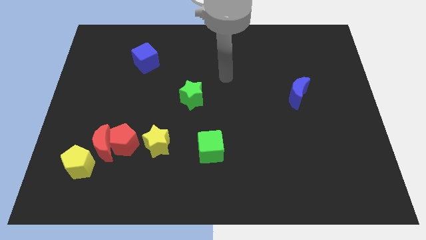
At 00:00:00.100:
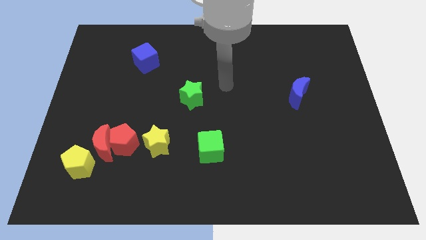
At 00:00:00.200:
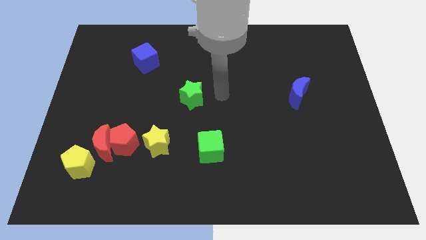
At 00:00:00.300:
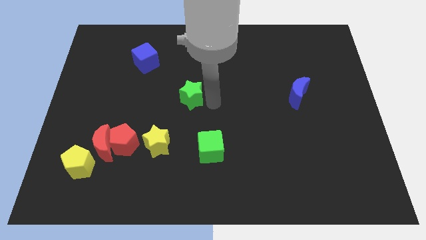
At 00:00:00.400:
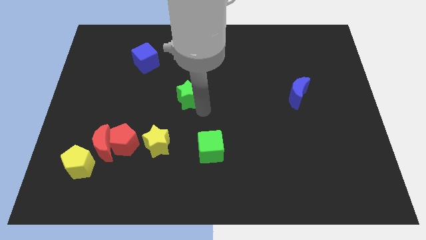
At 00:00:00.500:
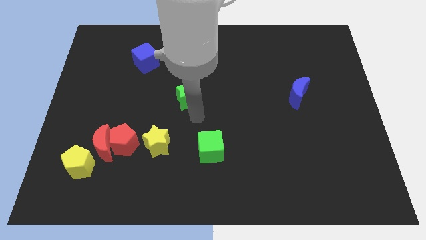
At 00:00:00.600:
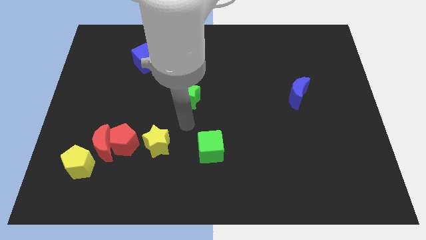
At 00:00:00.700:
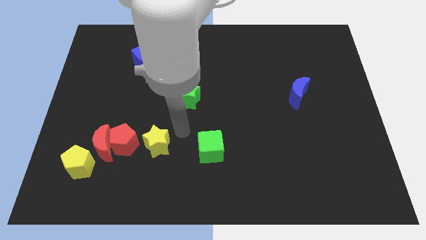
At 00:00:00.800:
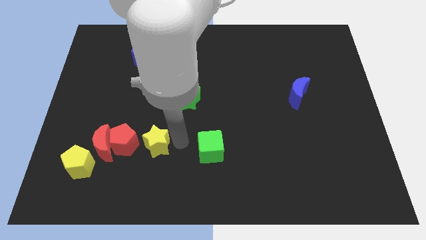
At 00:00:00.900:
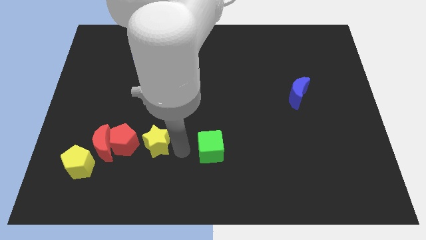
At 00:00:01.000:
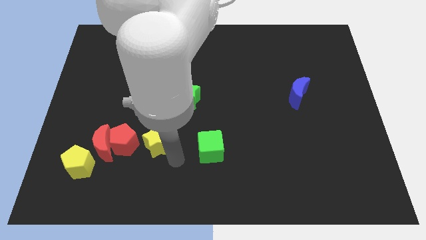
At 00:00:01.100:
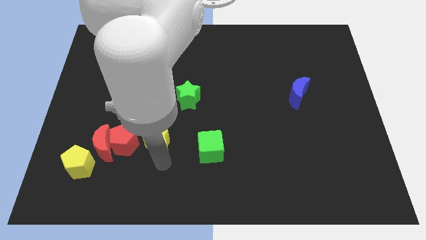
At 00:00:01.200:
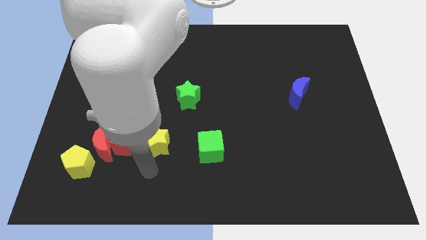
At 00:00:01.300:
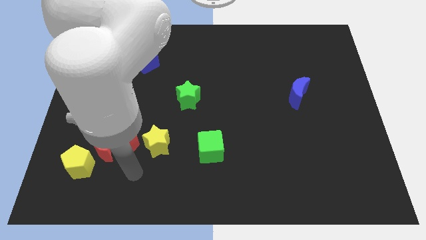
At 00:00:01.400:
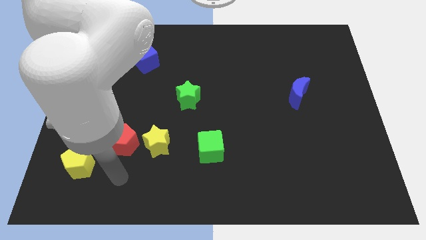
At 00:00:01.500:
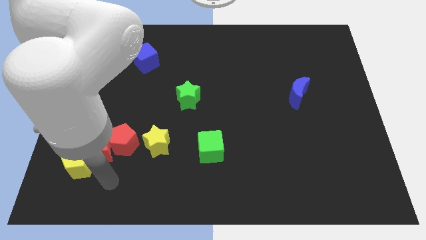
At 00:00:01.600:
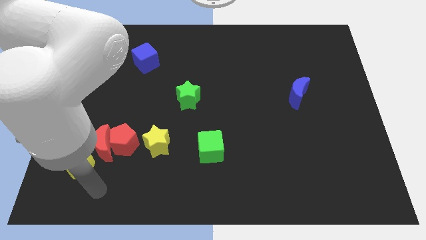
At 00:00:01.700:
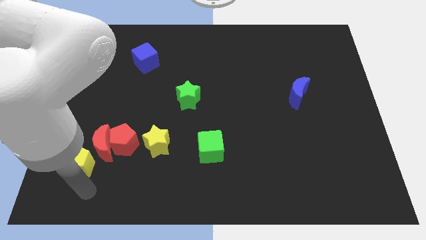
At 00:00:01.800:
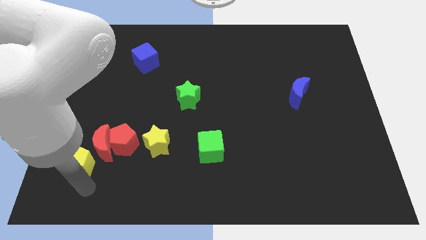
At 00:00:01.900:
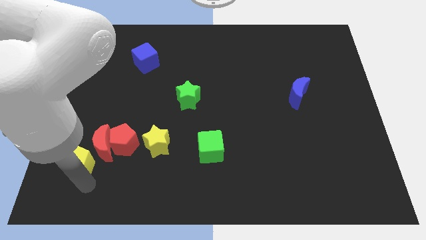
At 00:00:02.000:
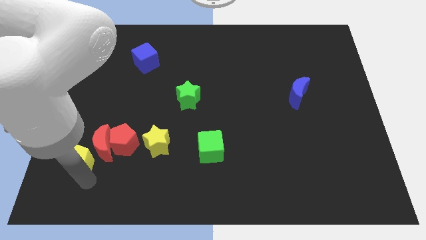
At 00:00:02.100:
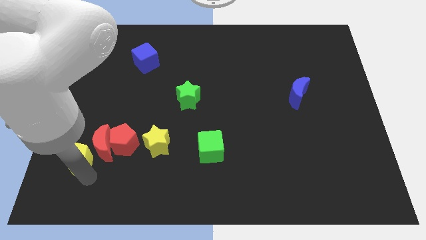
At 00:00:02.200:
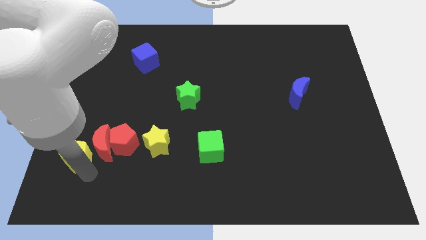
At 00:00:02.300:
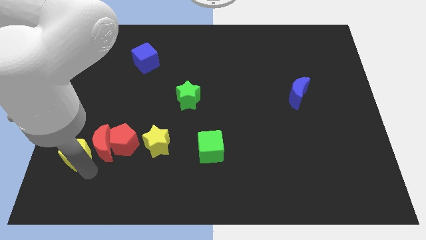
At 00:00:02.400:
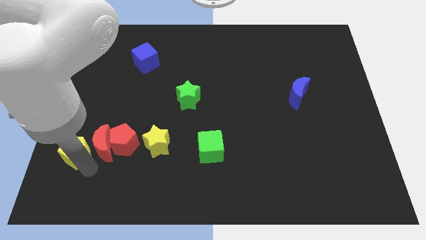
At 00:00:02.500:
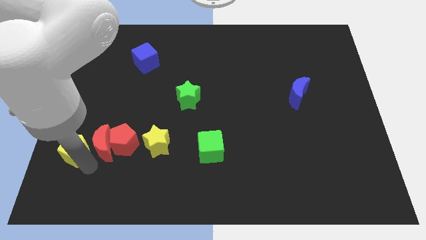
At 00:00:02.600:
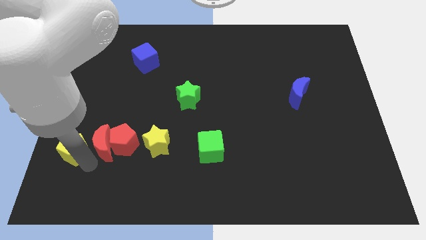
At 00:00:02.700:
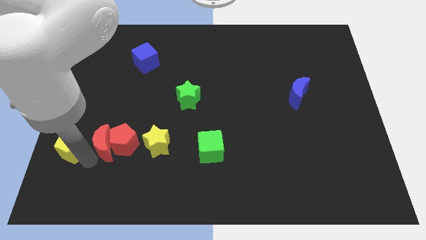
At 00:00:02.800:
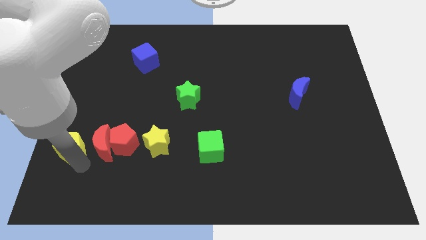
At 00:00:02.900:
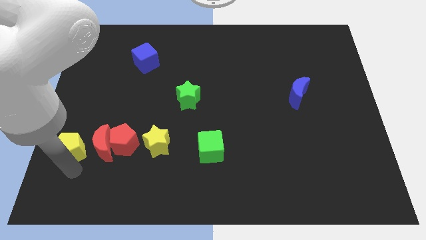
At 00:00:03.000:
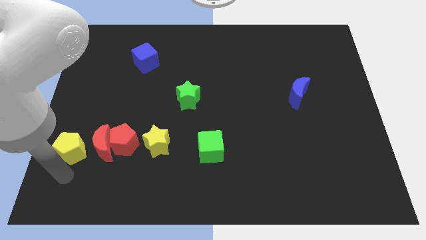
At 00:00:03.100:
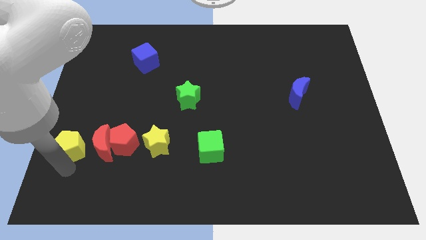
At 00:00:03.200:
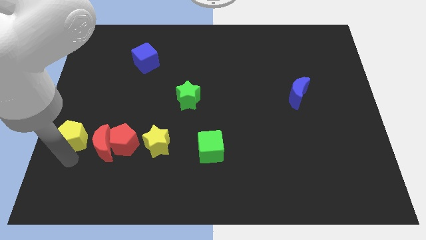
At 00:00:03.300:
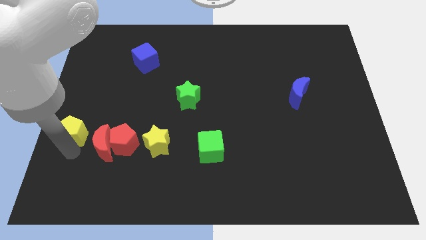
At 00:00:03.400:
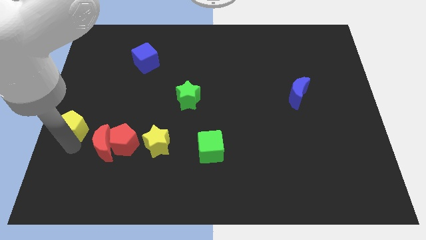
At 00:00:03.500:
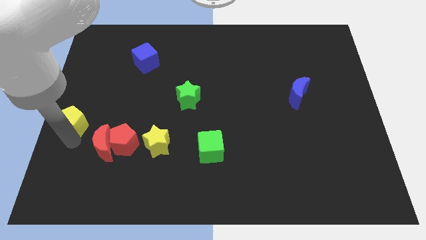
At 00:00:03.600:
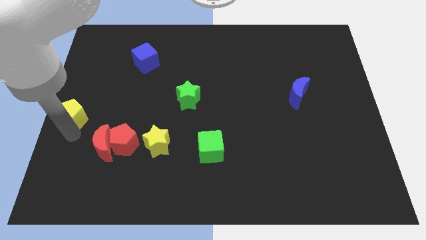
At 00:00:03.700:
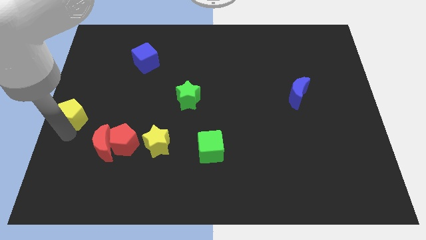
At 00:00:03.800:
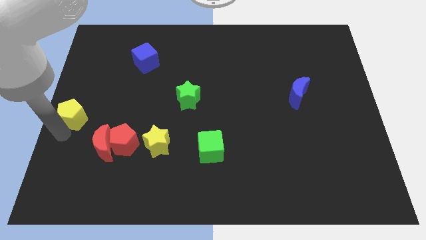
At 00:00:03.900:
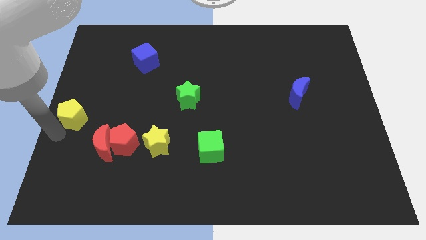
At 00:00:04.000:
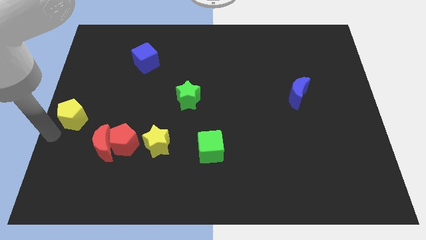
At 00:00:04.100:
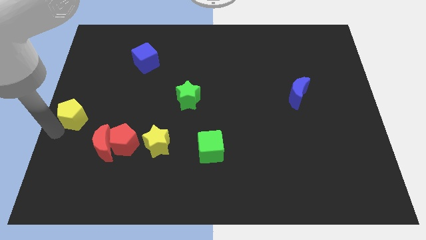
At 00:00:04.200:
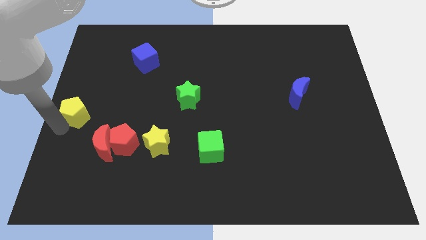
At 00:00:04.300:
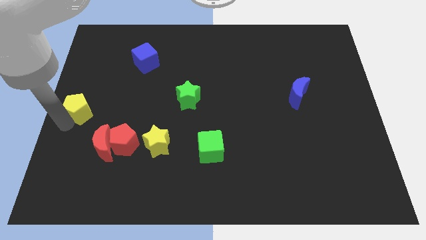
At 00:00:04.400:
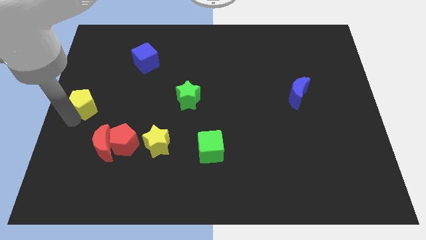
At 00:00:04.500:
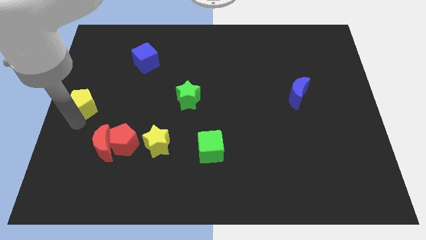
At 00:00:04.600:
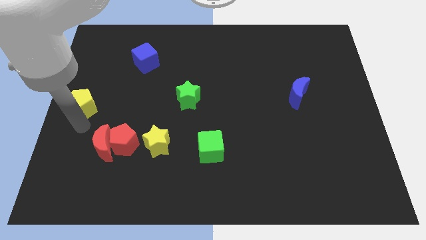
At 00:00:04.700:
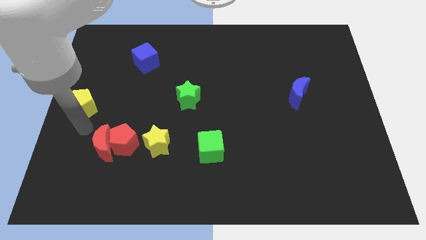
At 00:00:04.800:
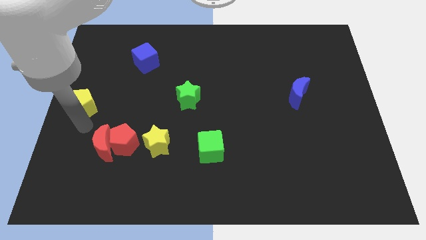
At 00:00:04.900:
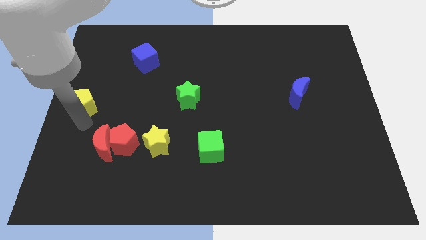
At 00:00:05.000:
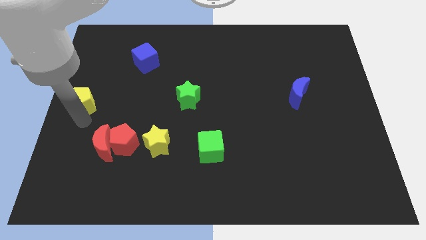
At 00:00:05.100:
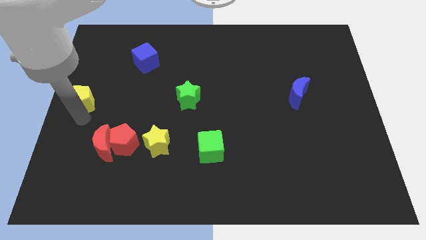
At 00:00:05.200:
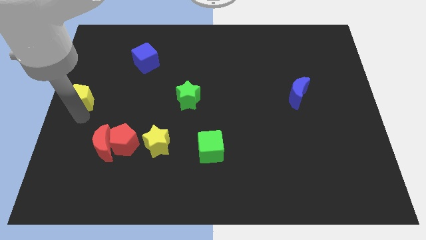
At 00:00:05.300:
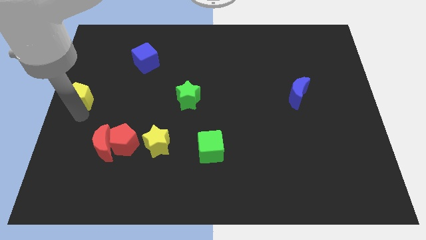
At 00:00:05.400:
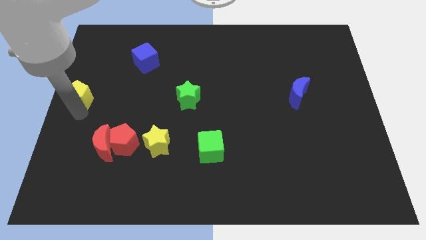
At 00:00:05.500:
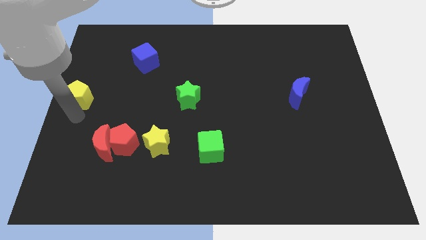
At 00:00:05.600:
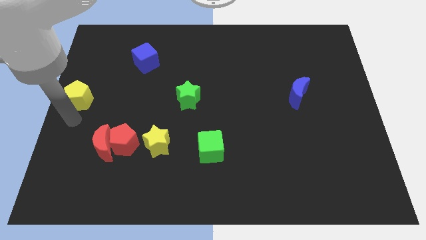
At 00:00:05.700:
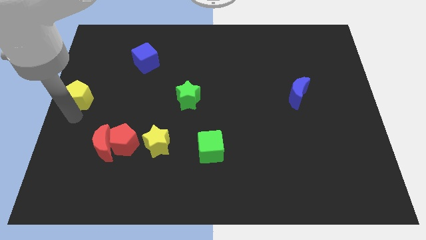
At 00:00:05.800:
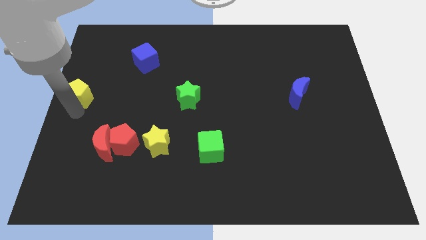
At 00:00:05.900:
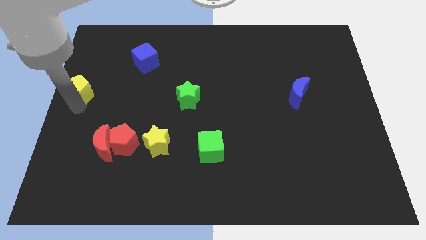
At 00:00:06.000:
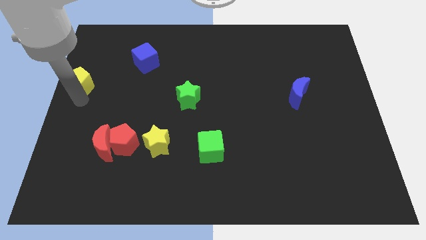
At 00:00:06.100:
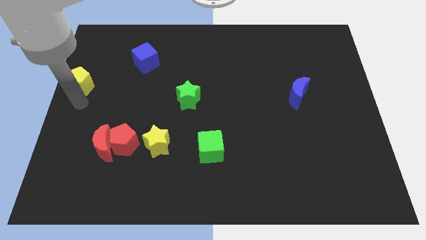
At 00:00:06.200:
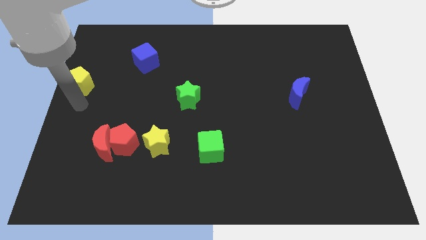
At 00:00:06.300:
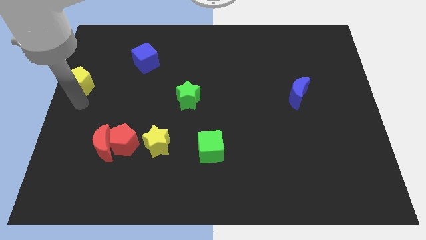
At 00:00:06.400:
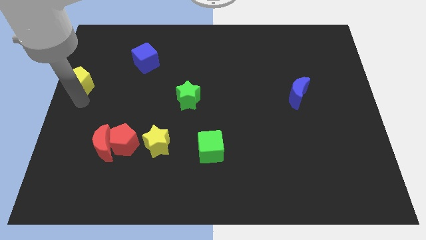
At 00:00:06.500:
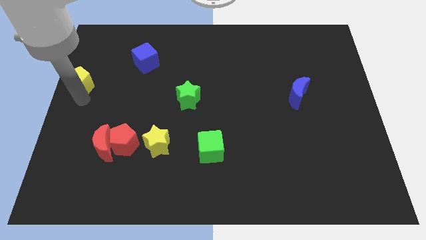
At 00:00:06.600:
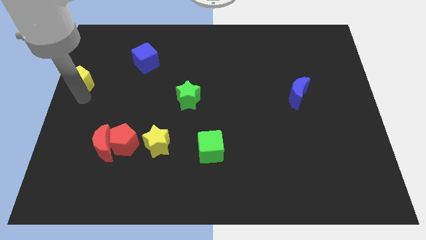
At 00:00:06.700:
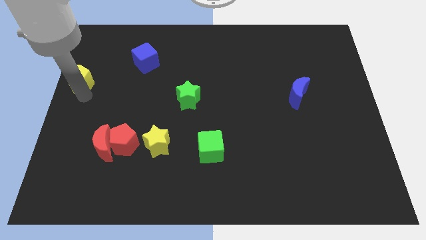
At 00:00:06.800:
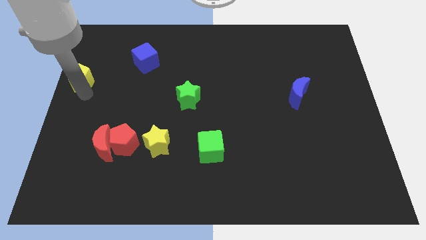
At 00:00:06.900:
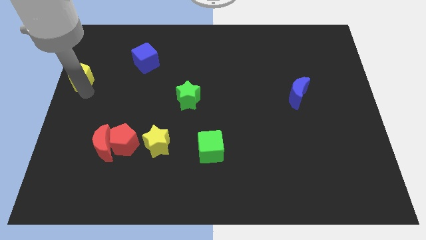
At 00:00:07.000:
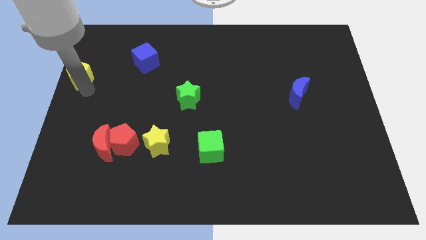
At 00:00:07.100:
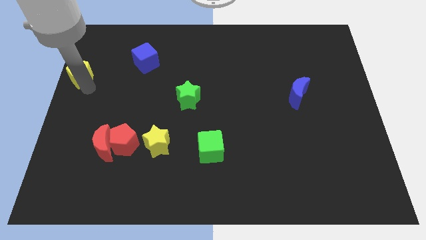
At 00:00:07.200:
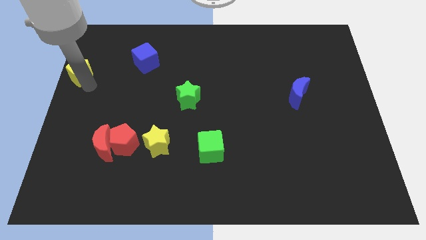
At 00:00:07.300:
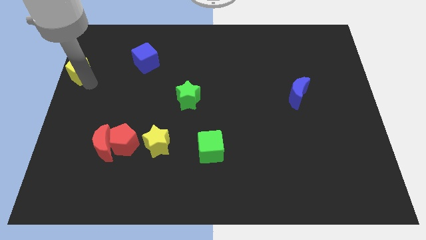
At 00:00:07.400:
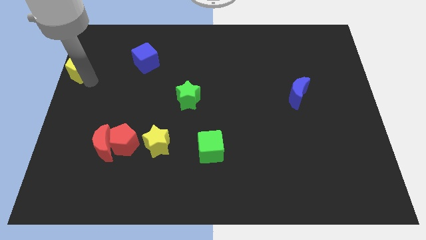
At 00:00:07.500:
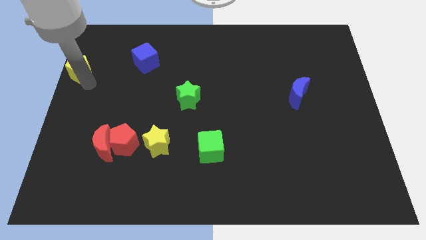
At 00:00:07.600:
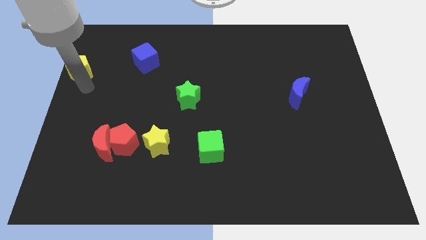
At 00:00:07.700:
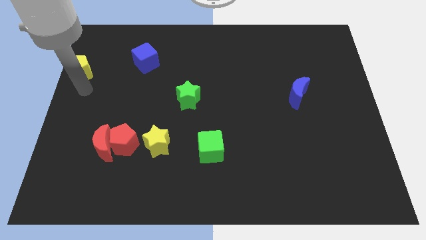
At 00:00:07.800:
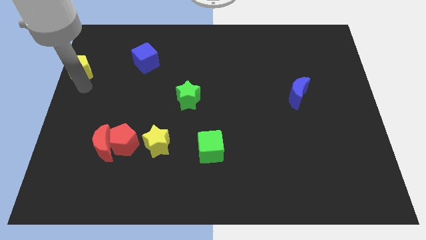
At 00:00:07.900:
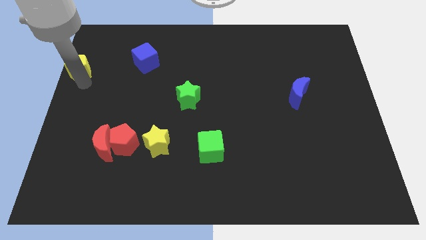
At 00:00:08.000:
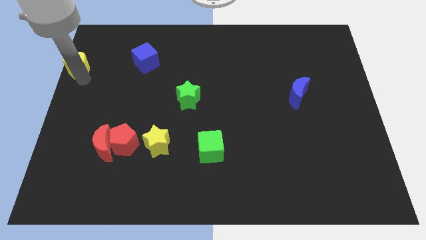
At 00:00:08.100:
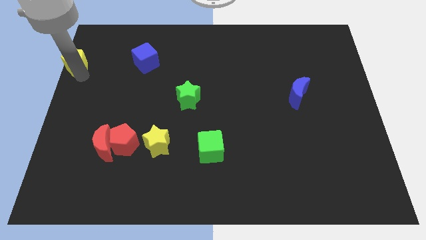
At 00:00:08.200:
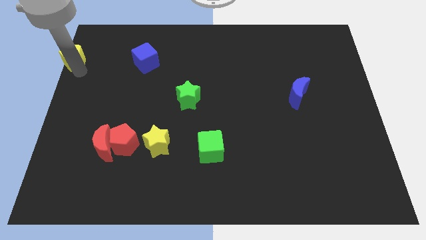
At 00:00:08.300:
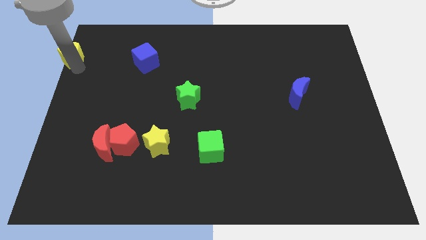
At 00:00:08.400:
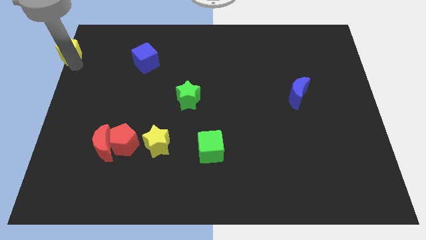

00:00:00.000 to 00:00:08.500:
move the yellow pentagon to the top left of the board
